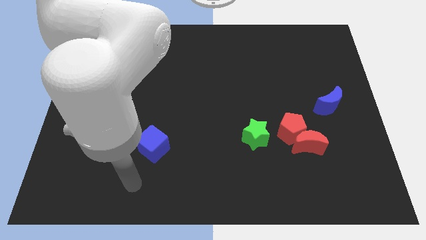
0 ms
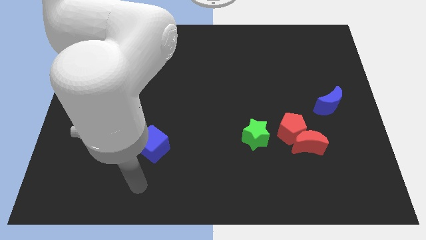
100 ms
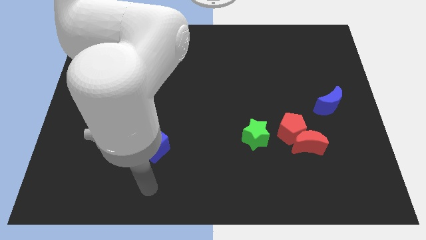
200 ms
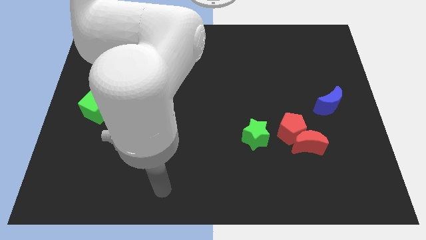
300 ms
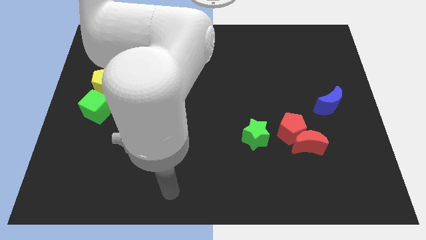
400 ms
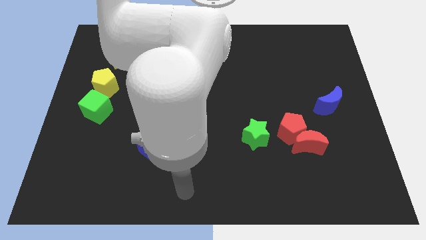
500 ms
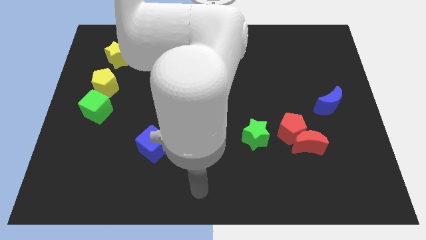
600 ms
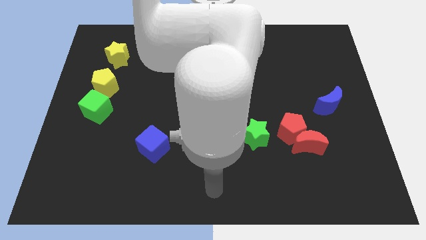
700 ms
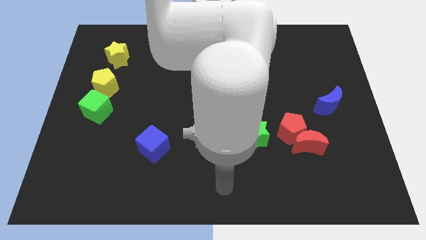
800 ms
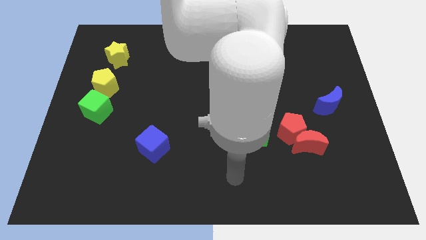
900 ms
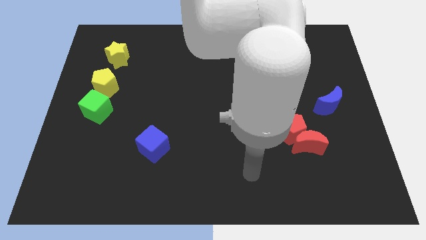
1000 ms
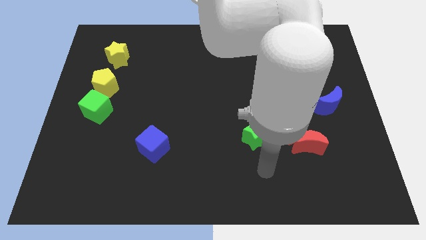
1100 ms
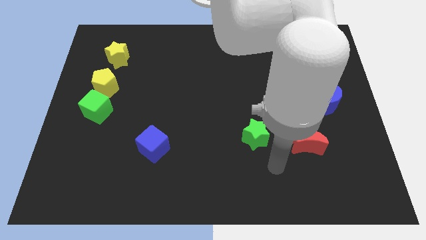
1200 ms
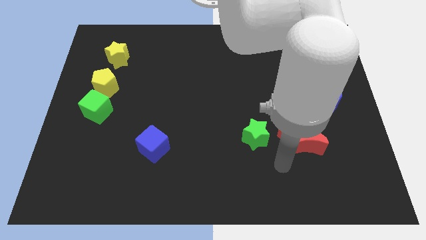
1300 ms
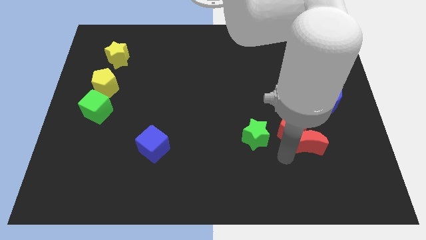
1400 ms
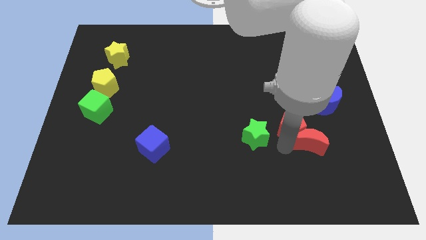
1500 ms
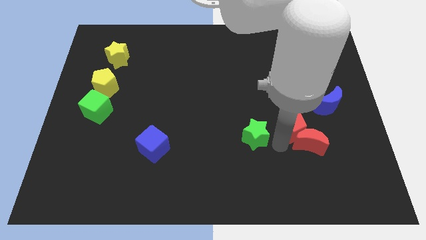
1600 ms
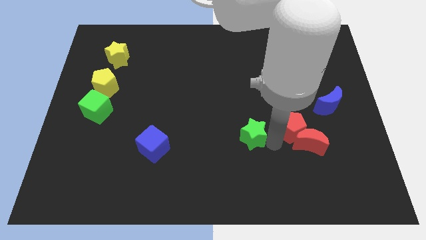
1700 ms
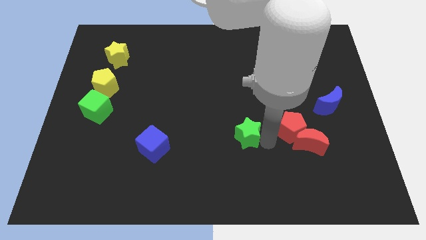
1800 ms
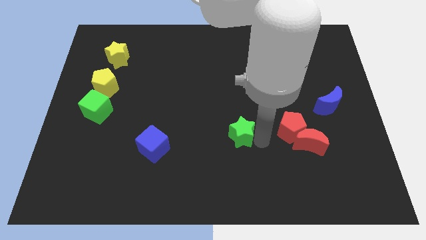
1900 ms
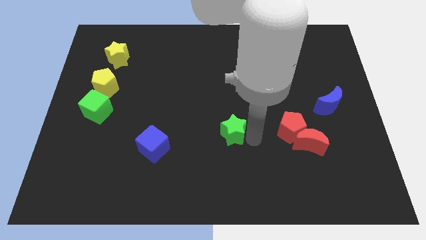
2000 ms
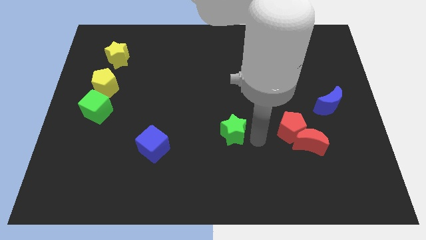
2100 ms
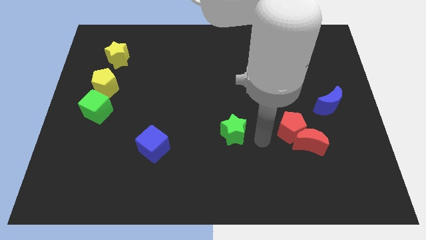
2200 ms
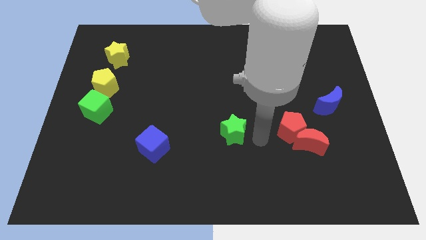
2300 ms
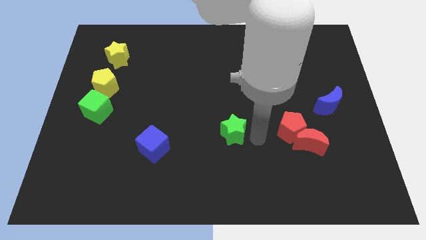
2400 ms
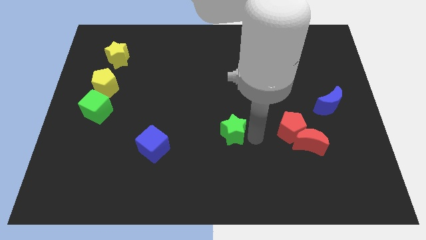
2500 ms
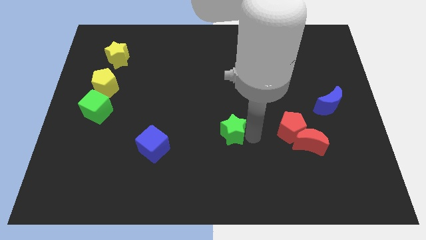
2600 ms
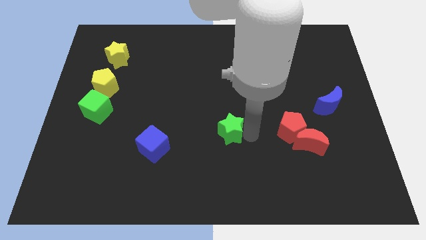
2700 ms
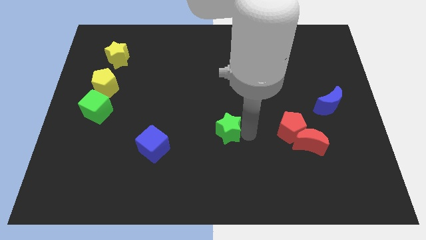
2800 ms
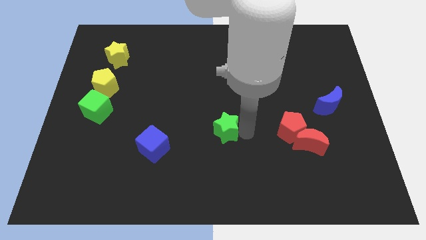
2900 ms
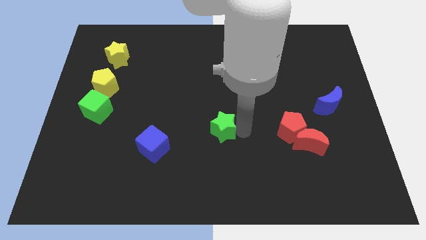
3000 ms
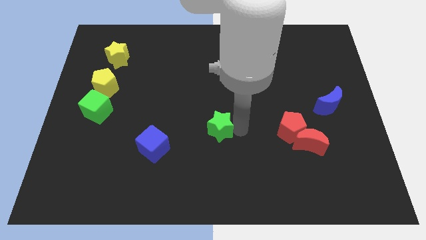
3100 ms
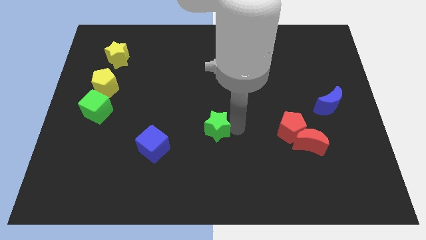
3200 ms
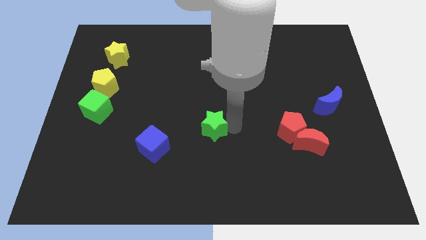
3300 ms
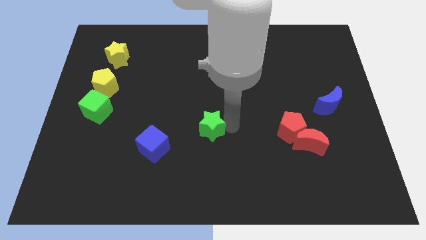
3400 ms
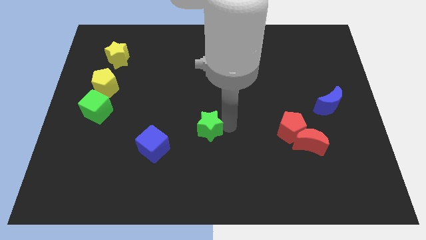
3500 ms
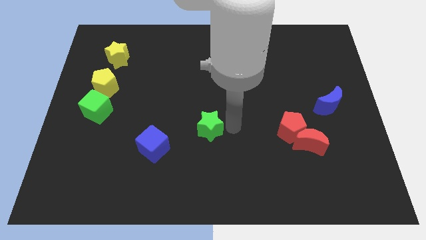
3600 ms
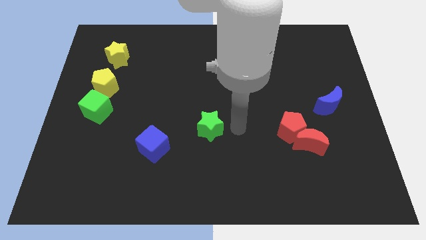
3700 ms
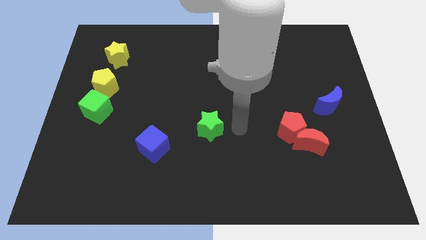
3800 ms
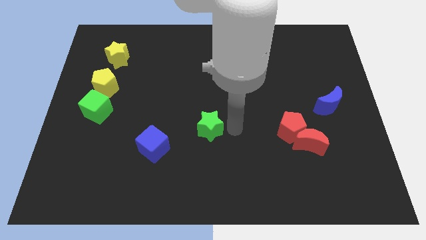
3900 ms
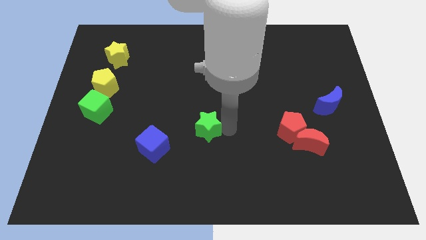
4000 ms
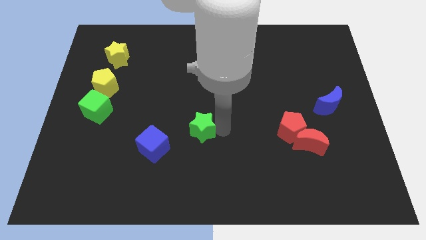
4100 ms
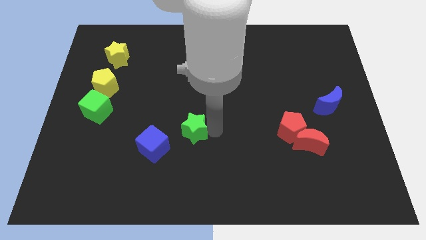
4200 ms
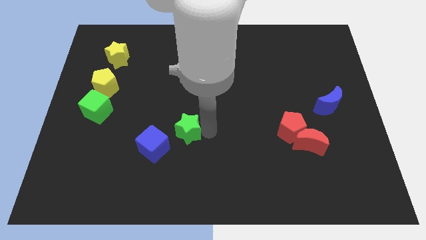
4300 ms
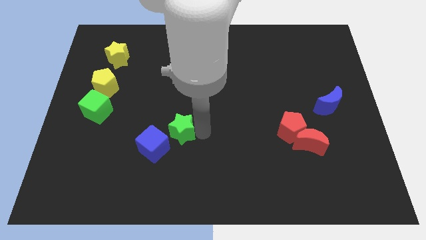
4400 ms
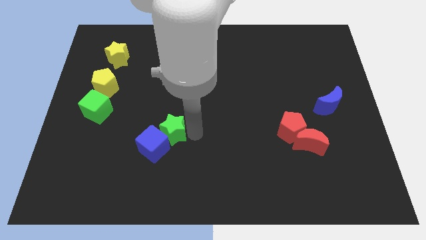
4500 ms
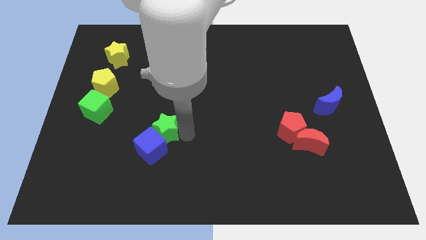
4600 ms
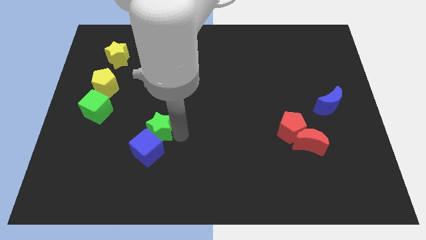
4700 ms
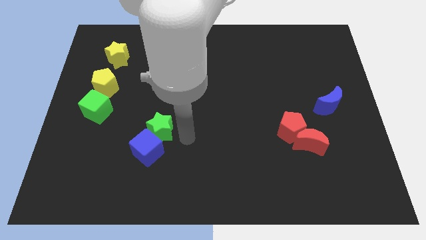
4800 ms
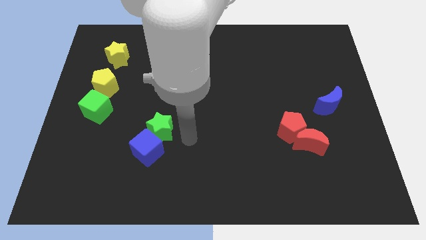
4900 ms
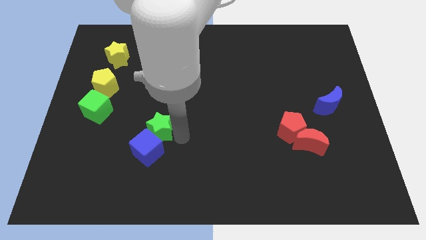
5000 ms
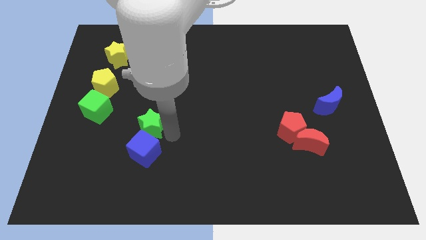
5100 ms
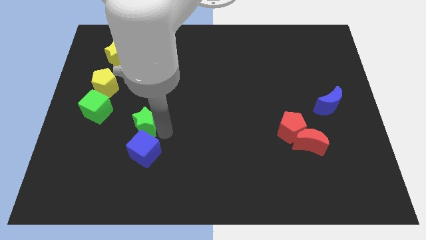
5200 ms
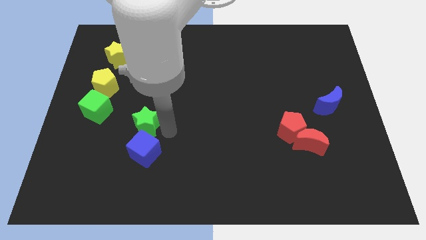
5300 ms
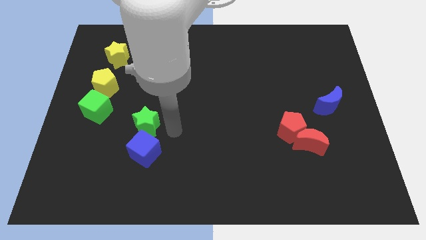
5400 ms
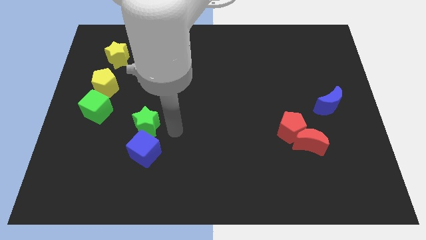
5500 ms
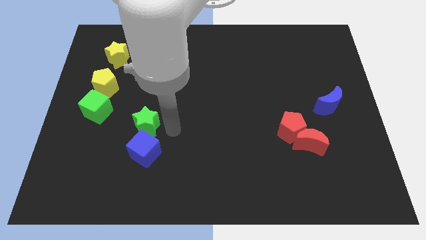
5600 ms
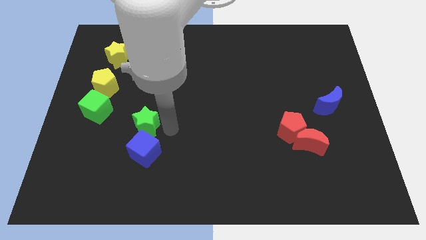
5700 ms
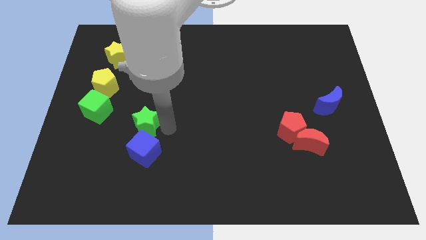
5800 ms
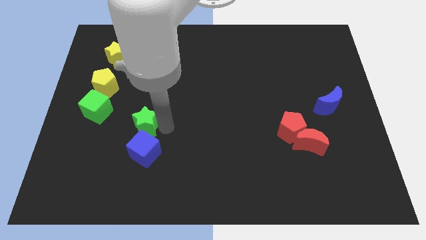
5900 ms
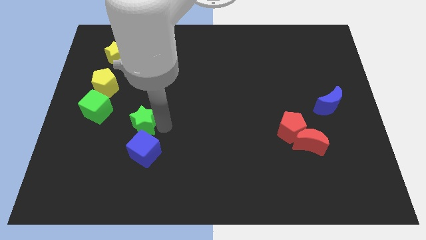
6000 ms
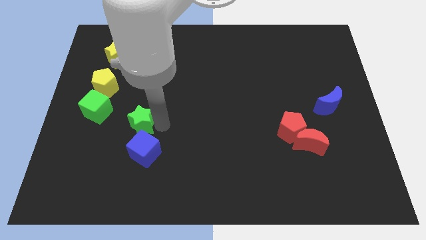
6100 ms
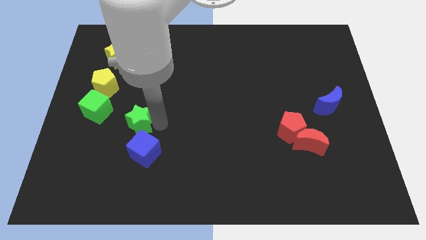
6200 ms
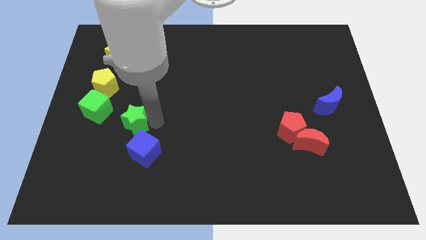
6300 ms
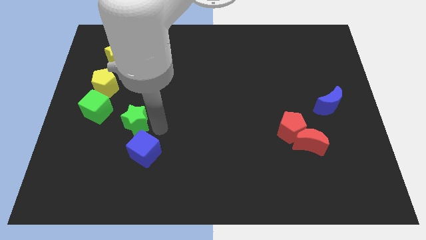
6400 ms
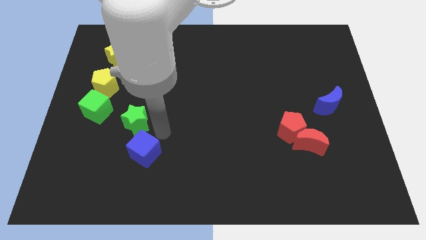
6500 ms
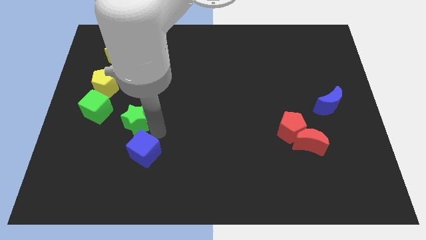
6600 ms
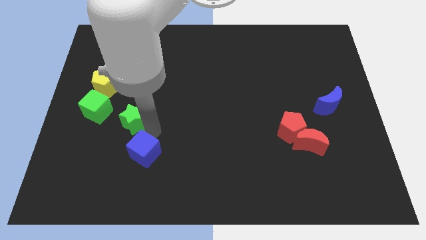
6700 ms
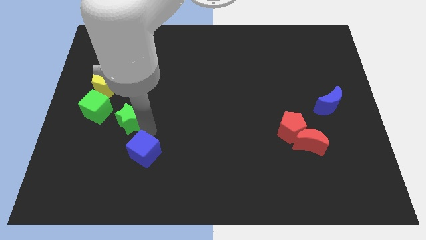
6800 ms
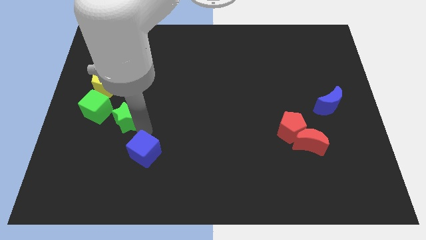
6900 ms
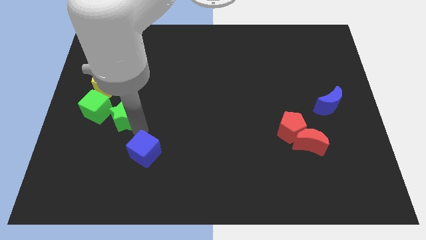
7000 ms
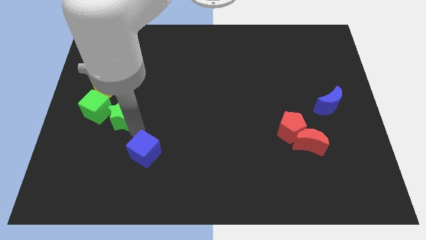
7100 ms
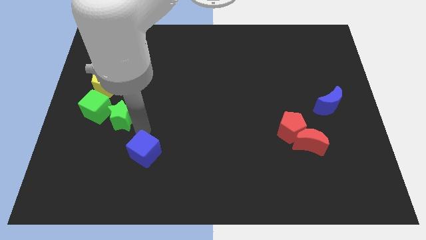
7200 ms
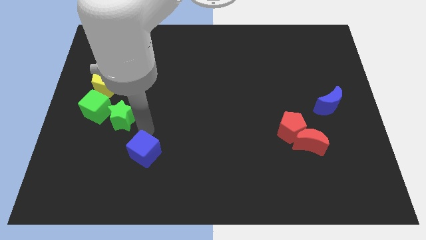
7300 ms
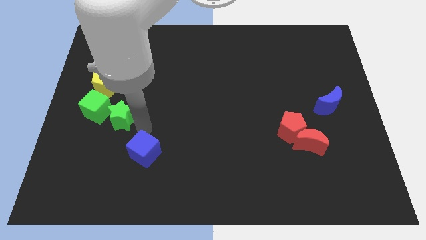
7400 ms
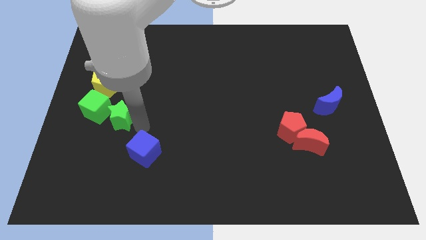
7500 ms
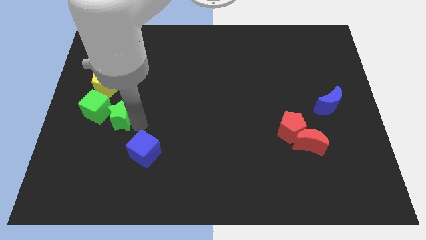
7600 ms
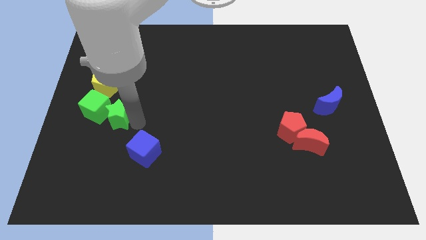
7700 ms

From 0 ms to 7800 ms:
move the green star next to the green cube

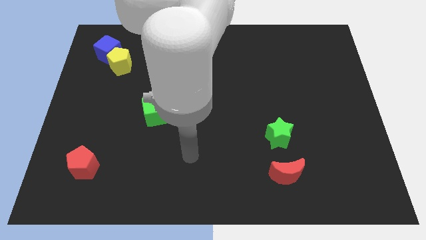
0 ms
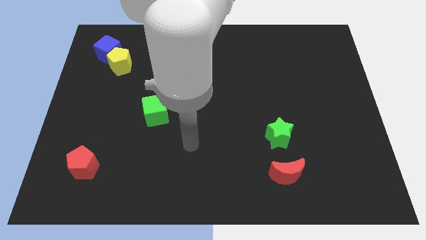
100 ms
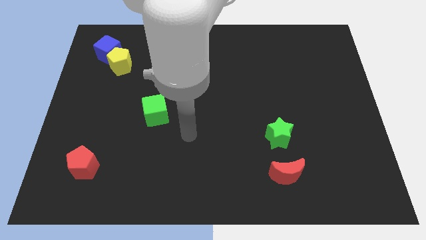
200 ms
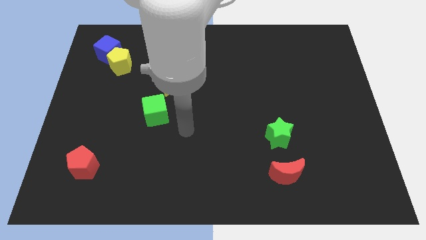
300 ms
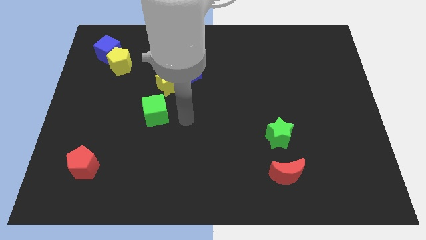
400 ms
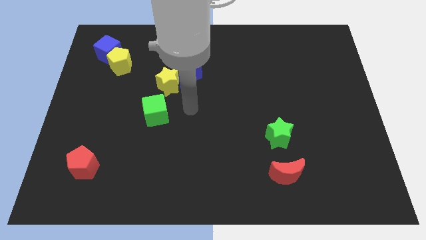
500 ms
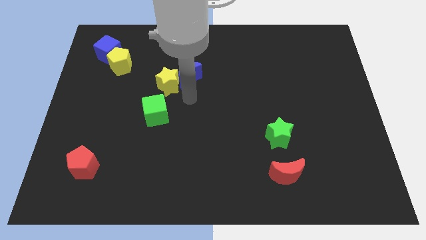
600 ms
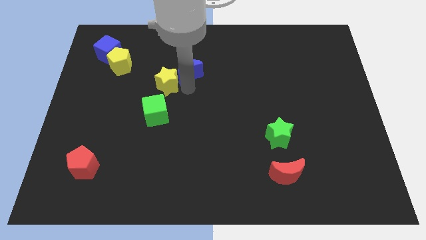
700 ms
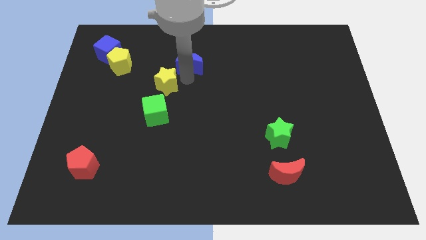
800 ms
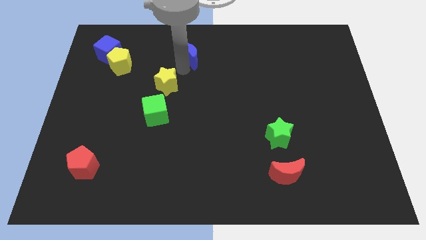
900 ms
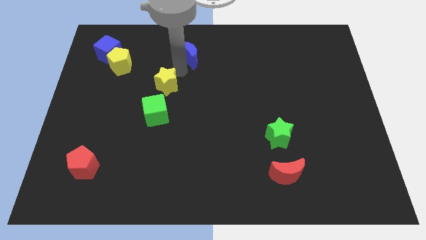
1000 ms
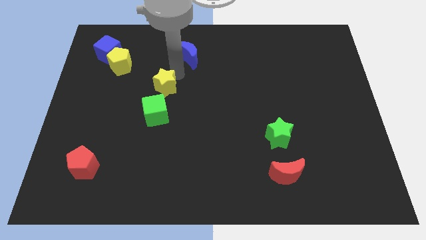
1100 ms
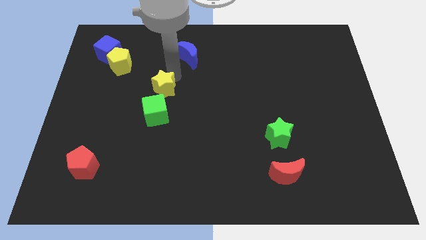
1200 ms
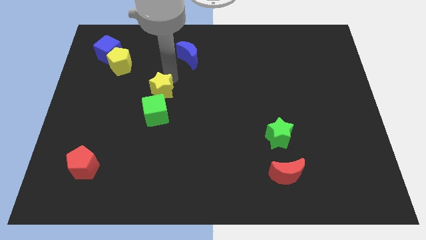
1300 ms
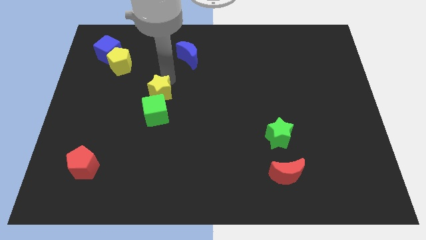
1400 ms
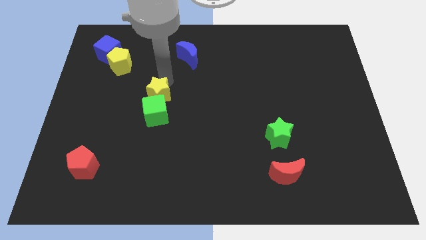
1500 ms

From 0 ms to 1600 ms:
put the yellow star close to the green cube
